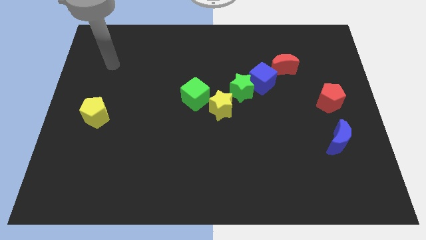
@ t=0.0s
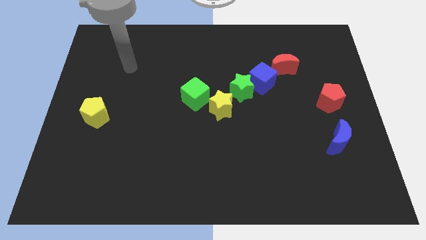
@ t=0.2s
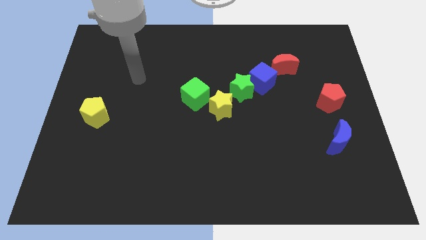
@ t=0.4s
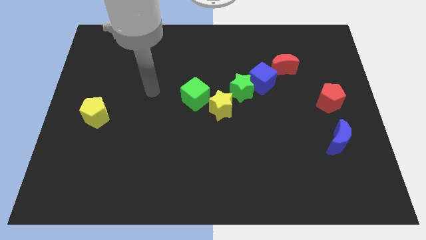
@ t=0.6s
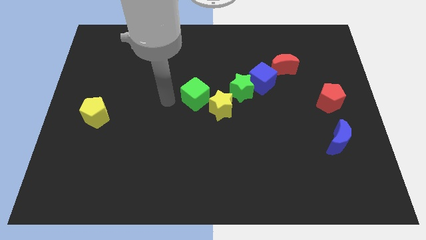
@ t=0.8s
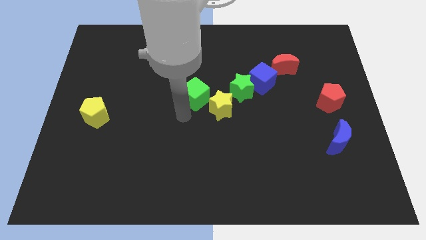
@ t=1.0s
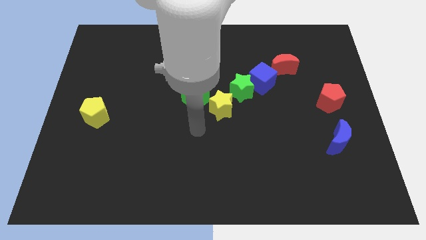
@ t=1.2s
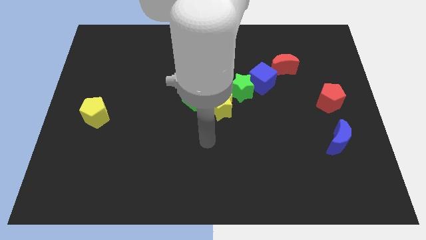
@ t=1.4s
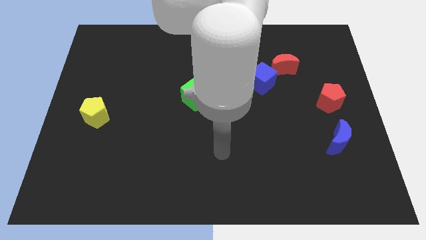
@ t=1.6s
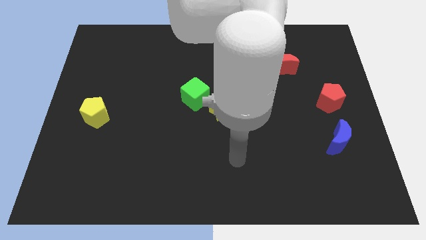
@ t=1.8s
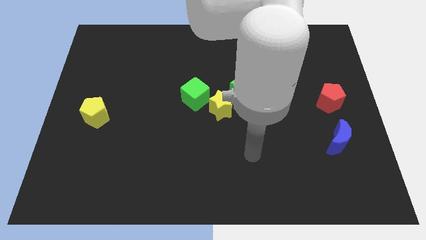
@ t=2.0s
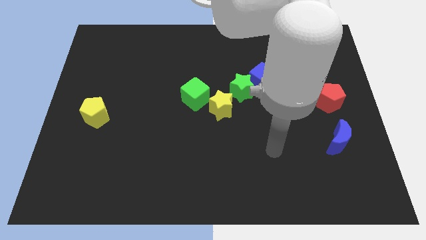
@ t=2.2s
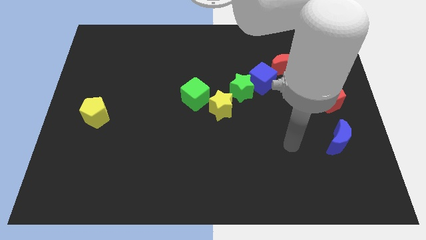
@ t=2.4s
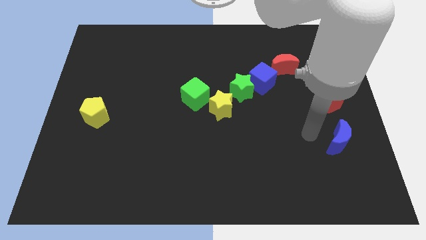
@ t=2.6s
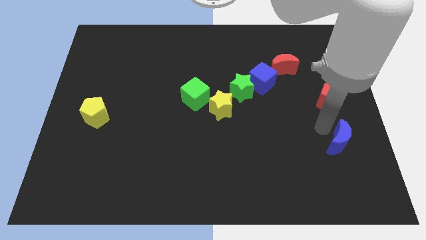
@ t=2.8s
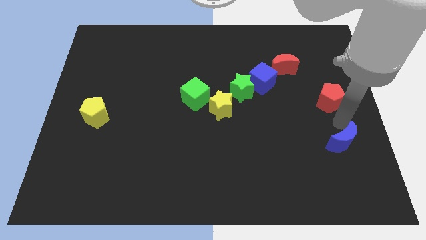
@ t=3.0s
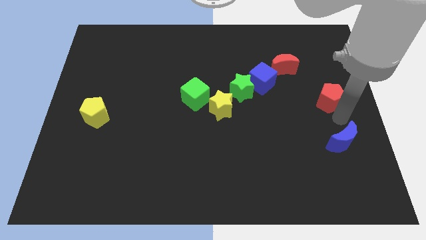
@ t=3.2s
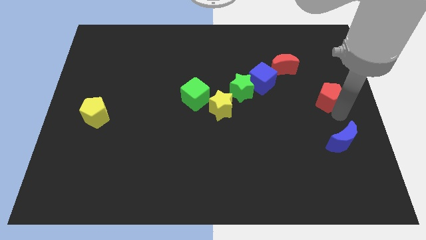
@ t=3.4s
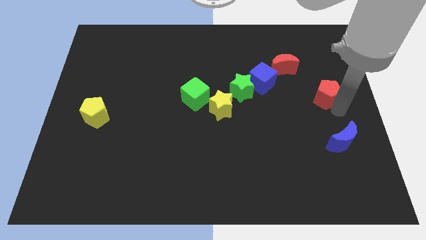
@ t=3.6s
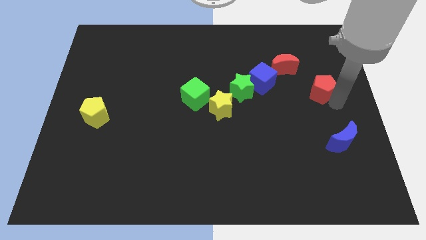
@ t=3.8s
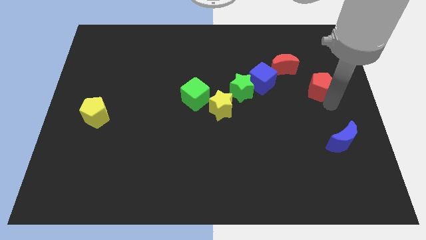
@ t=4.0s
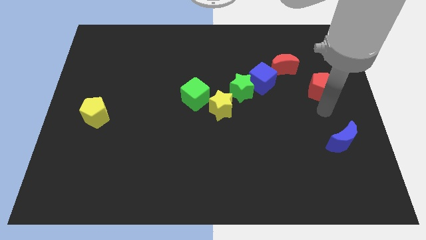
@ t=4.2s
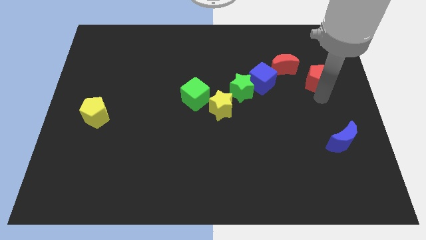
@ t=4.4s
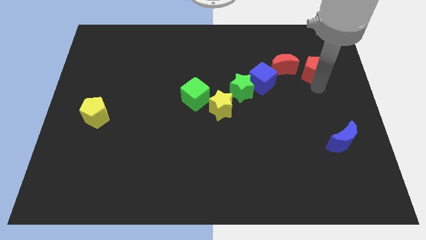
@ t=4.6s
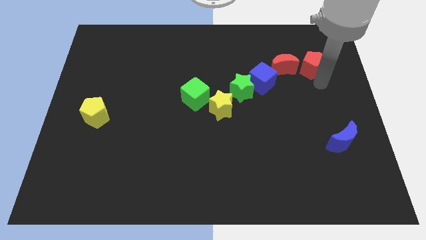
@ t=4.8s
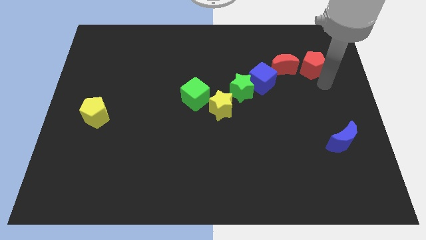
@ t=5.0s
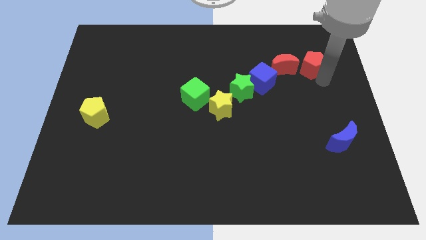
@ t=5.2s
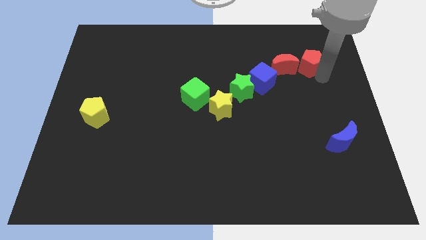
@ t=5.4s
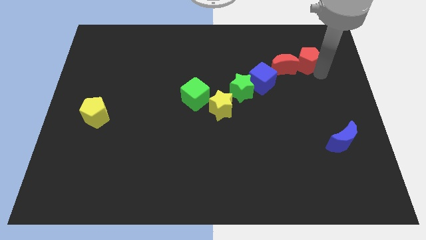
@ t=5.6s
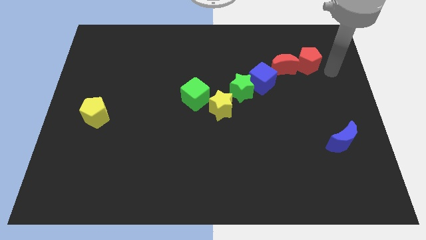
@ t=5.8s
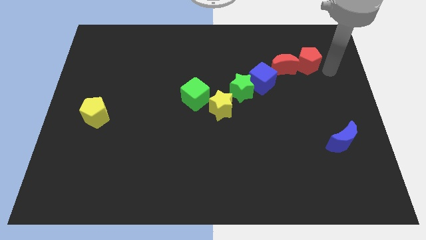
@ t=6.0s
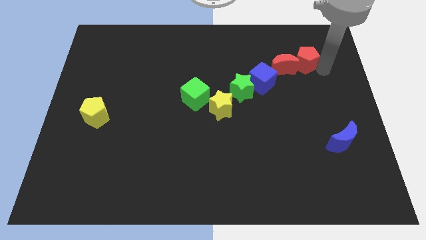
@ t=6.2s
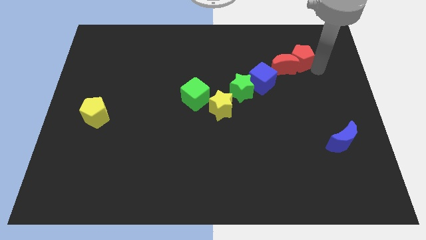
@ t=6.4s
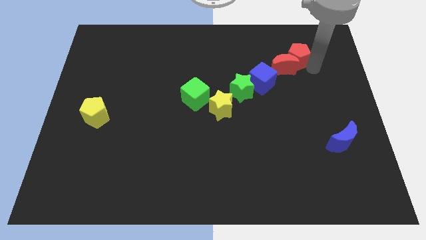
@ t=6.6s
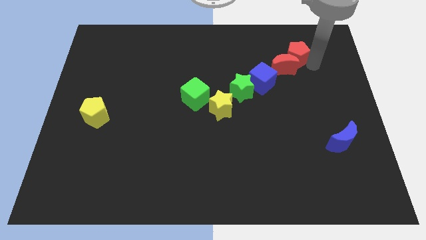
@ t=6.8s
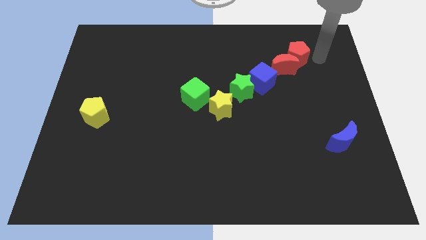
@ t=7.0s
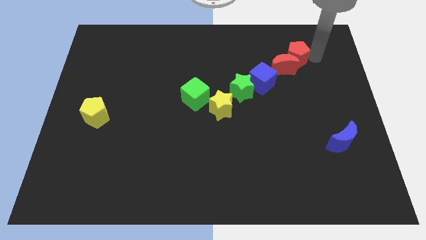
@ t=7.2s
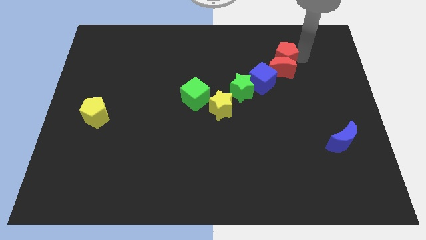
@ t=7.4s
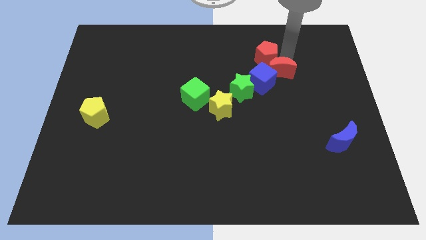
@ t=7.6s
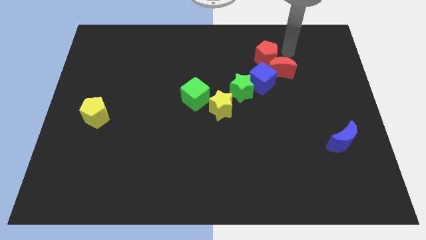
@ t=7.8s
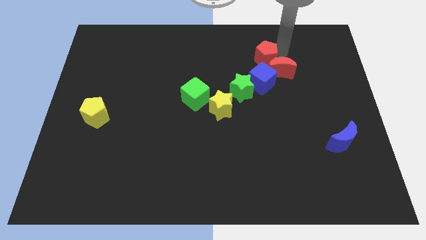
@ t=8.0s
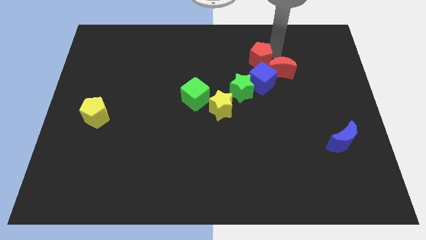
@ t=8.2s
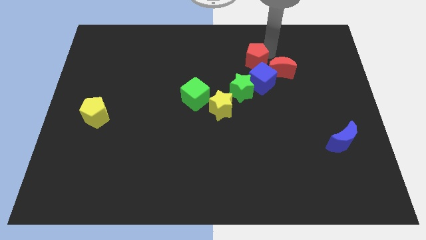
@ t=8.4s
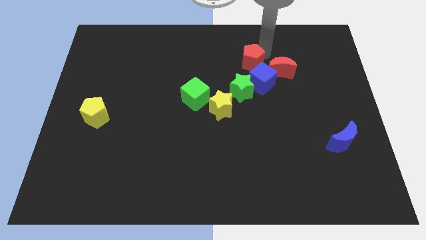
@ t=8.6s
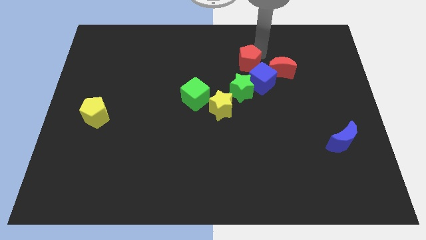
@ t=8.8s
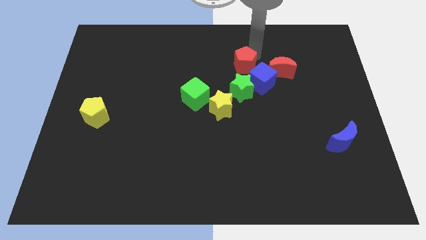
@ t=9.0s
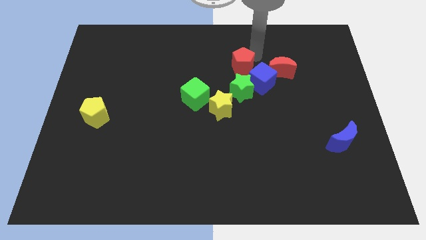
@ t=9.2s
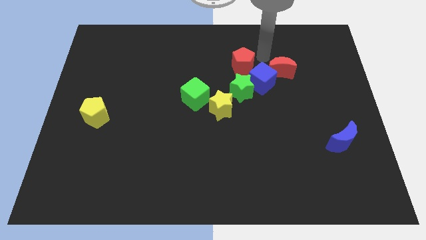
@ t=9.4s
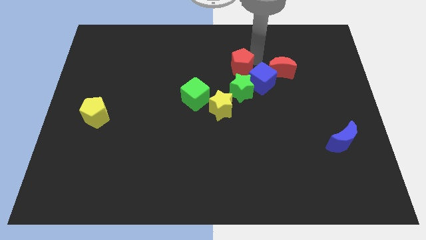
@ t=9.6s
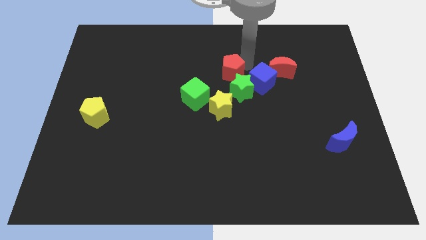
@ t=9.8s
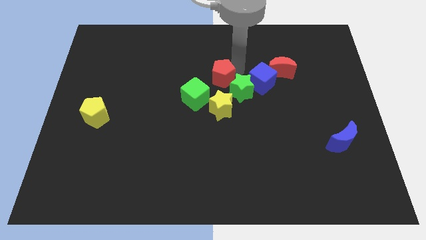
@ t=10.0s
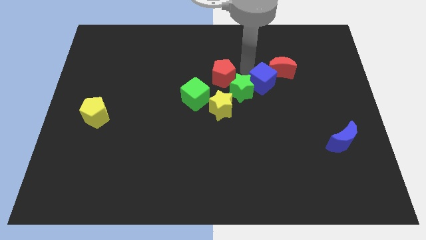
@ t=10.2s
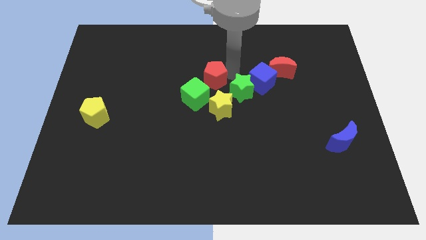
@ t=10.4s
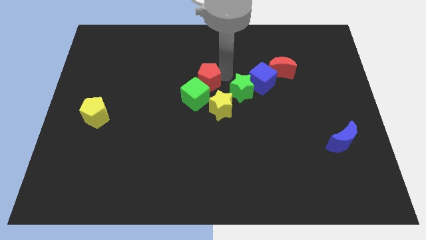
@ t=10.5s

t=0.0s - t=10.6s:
push the red pentagon to the top left of the yellow star

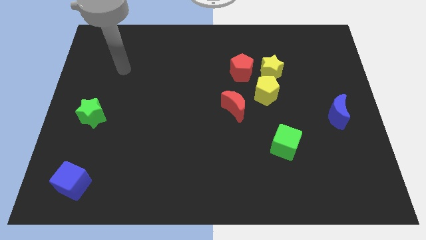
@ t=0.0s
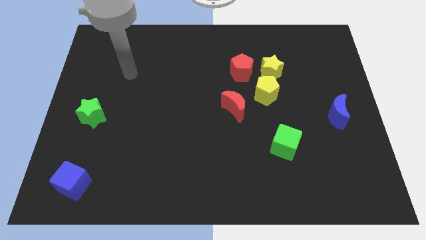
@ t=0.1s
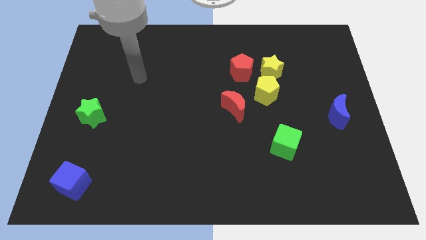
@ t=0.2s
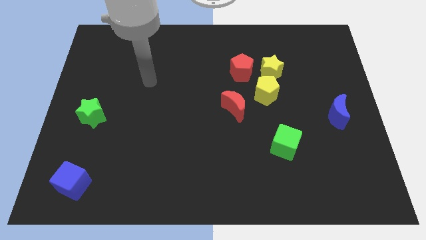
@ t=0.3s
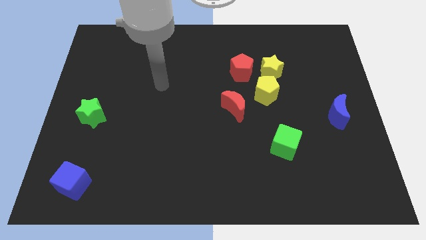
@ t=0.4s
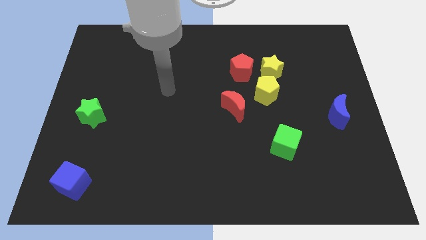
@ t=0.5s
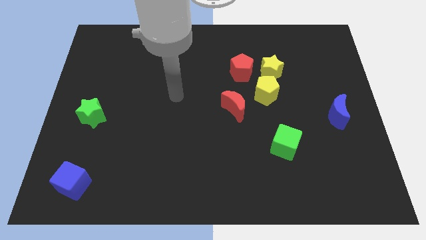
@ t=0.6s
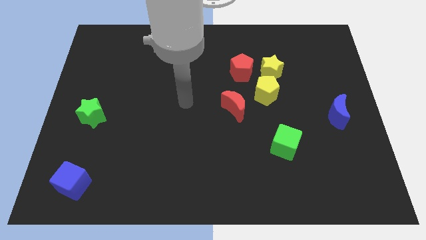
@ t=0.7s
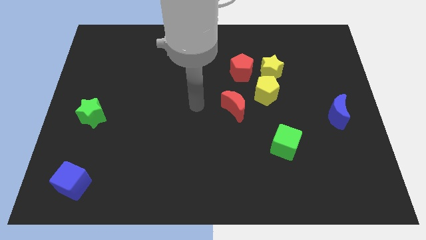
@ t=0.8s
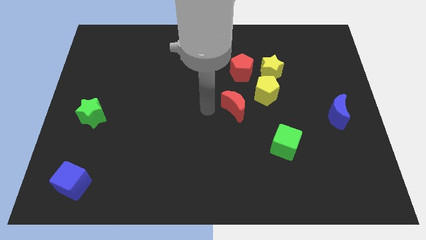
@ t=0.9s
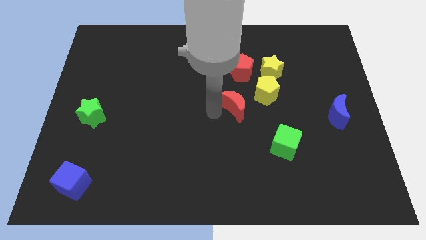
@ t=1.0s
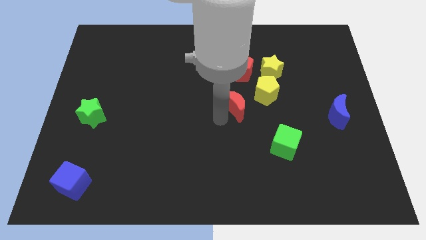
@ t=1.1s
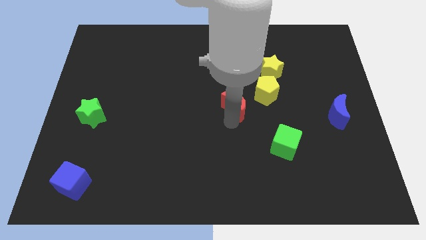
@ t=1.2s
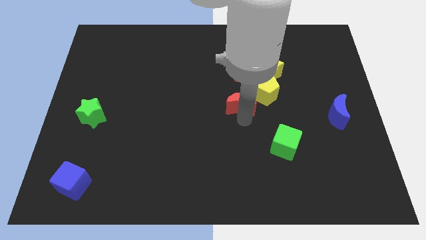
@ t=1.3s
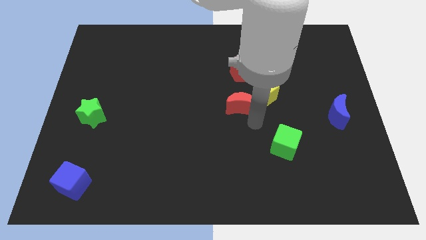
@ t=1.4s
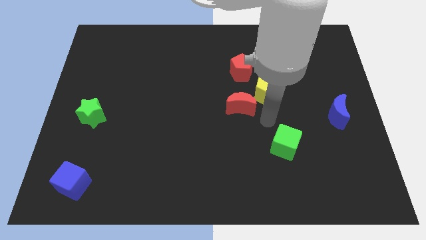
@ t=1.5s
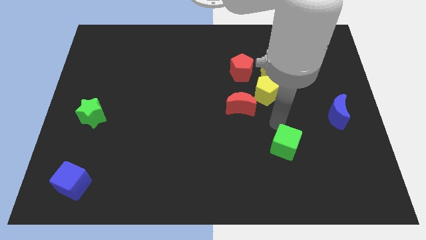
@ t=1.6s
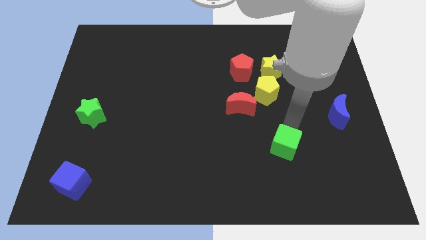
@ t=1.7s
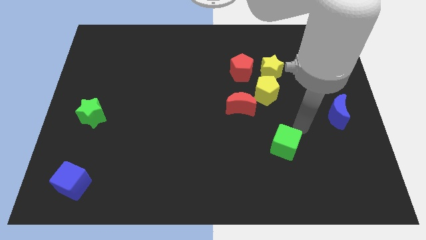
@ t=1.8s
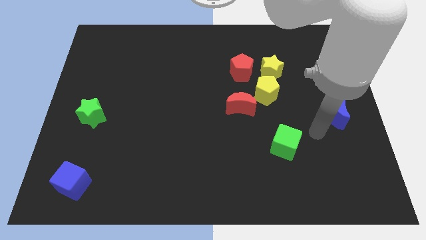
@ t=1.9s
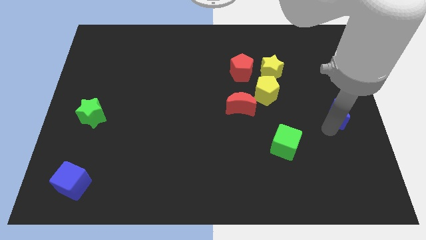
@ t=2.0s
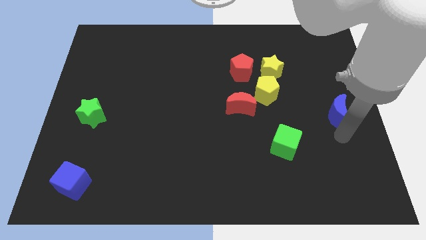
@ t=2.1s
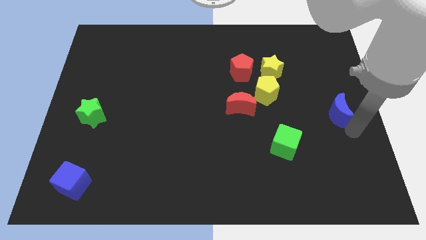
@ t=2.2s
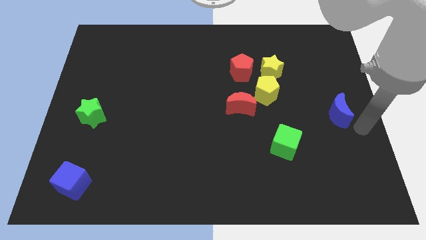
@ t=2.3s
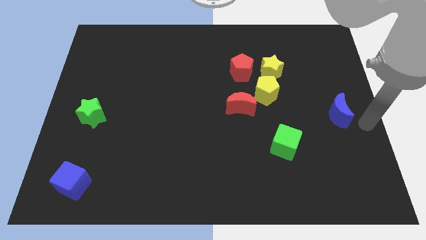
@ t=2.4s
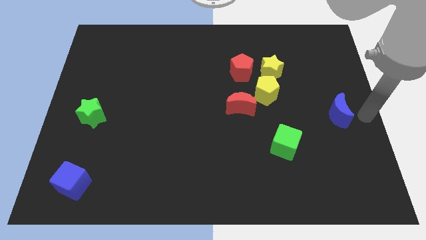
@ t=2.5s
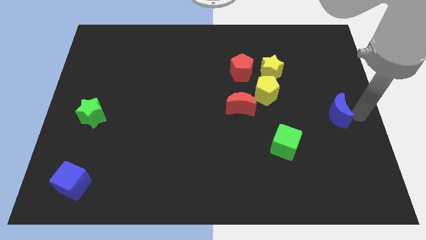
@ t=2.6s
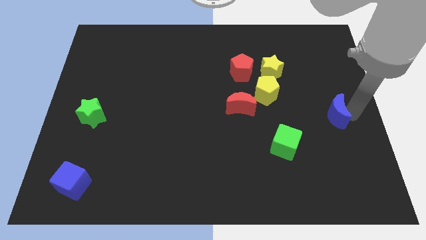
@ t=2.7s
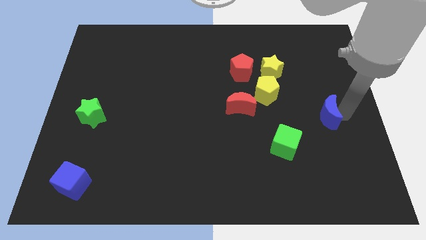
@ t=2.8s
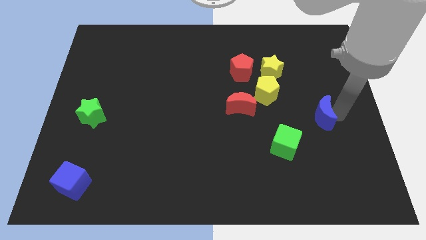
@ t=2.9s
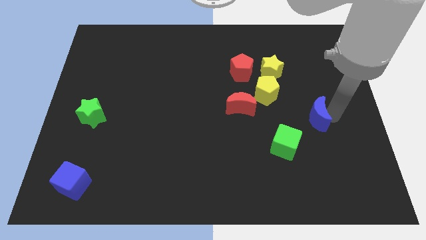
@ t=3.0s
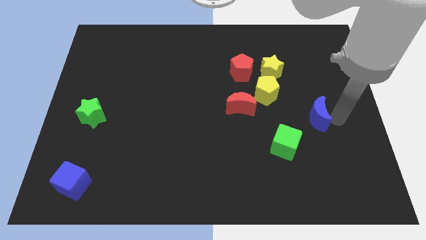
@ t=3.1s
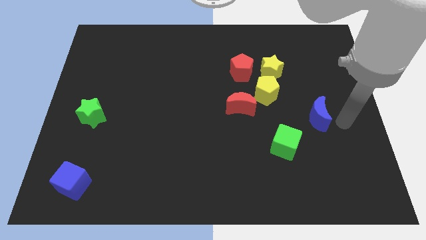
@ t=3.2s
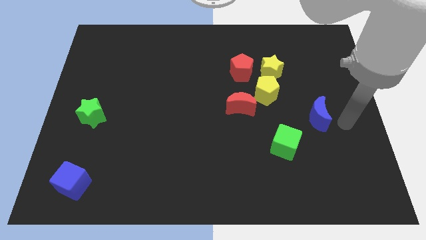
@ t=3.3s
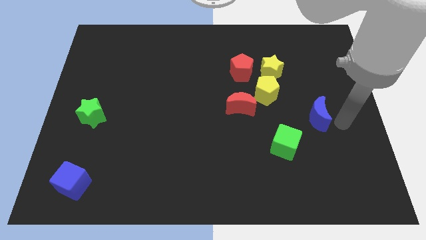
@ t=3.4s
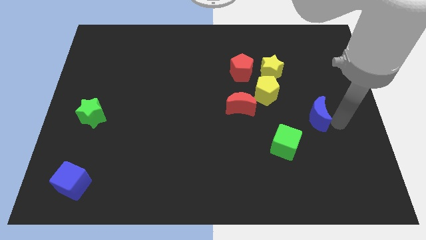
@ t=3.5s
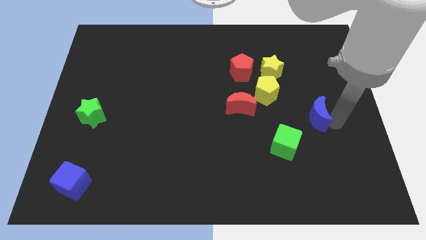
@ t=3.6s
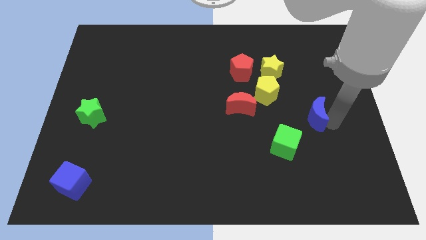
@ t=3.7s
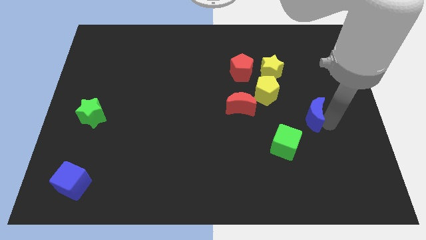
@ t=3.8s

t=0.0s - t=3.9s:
move the blue moon diagonally down and to the right of the yellow pentagon
